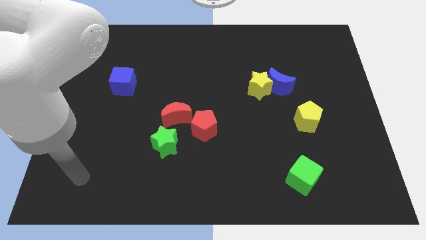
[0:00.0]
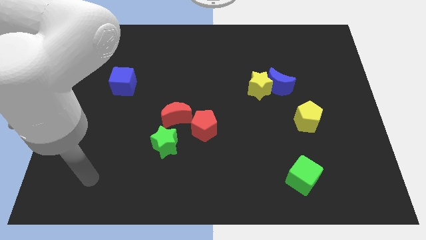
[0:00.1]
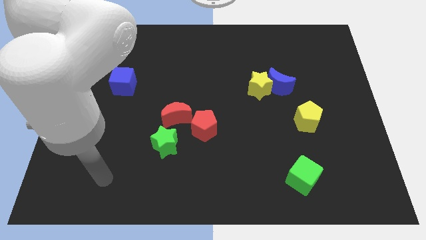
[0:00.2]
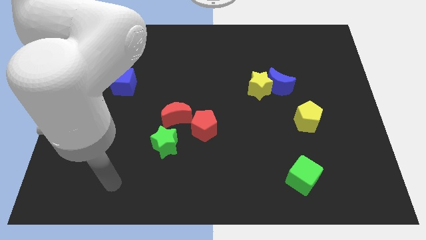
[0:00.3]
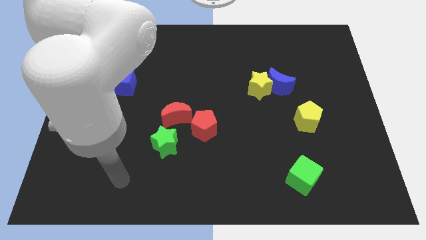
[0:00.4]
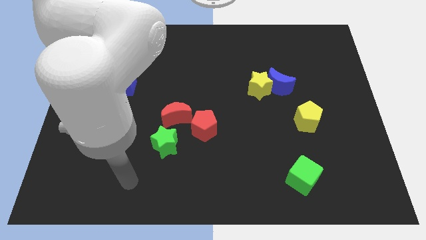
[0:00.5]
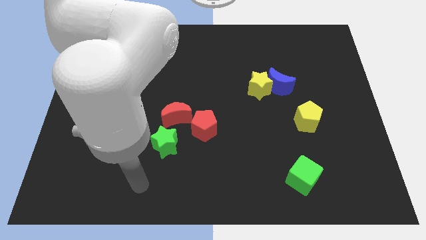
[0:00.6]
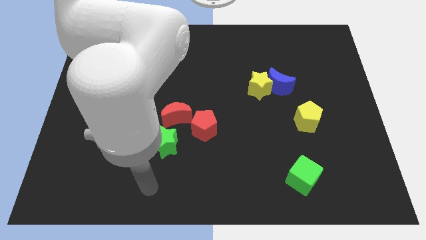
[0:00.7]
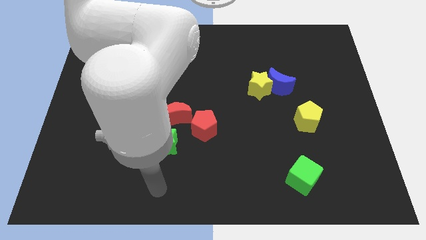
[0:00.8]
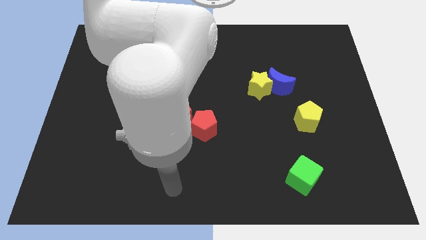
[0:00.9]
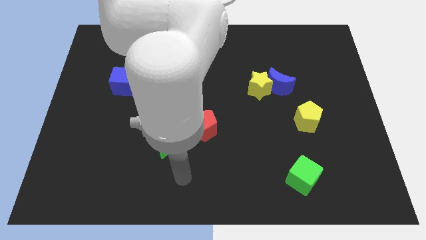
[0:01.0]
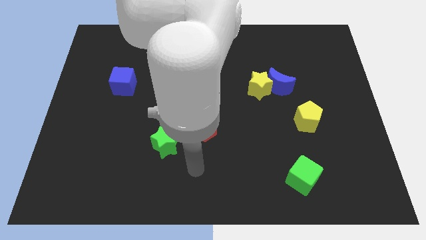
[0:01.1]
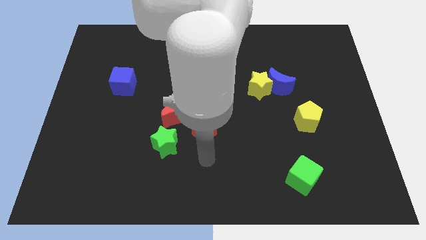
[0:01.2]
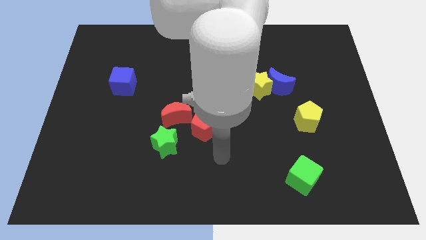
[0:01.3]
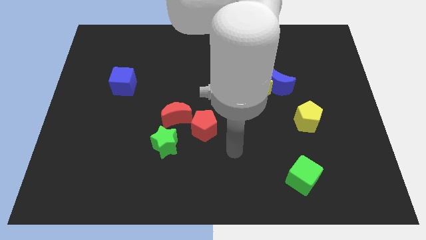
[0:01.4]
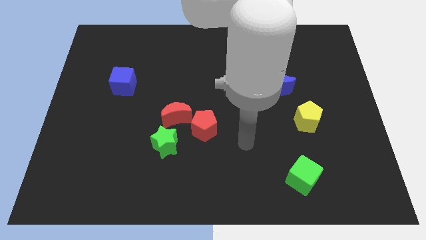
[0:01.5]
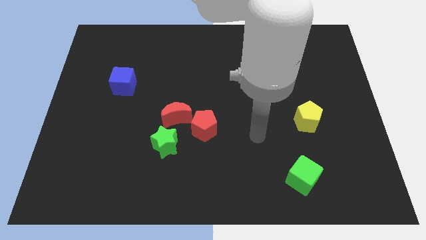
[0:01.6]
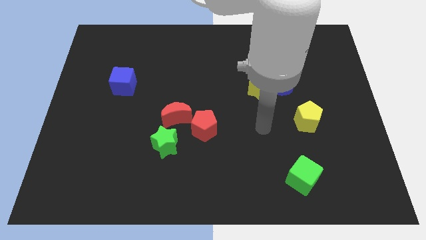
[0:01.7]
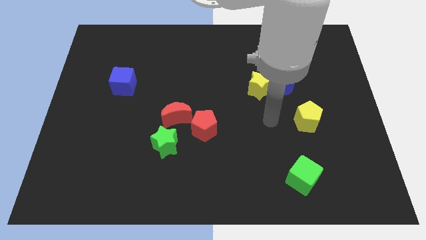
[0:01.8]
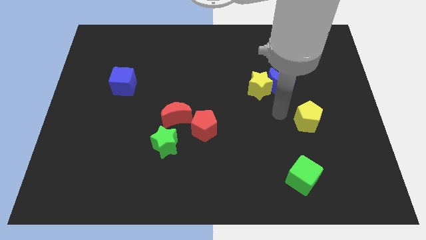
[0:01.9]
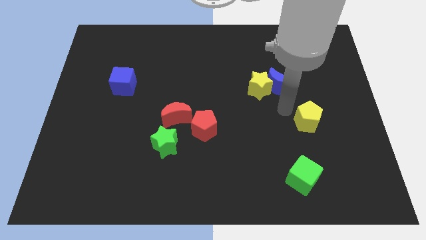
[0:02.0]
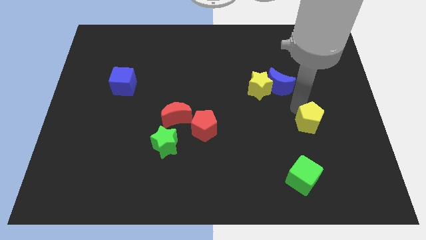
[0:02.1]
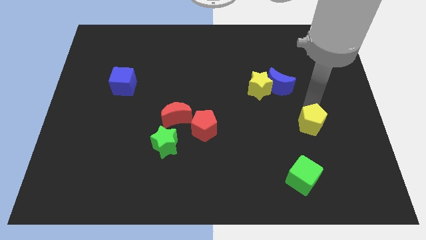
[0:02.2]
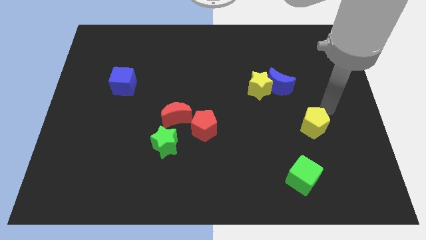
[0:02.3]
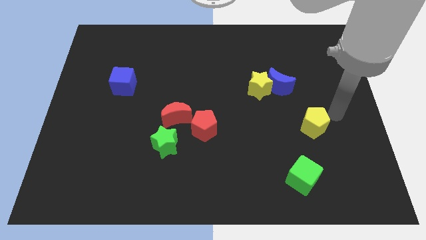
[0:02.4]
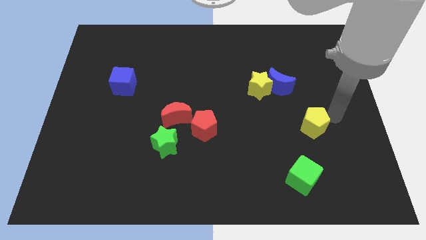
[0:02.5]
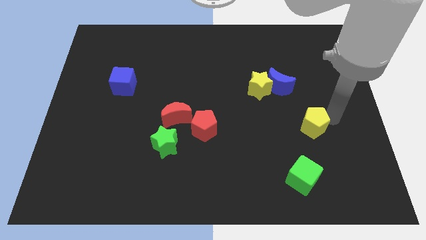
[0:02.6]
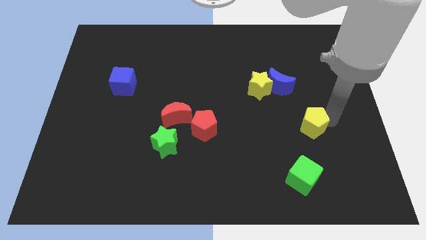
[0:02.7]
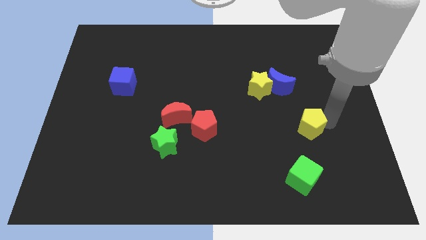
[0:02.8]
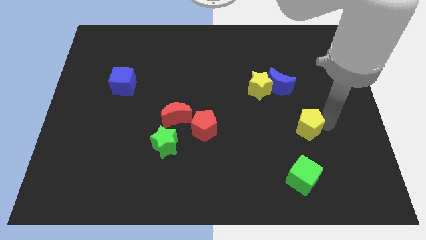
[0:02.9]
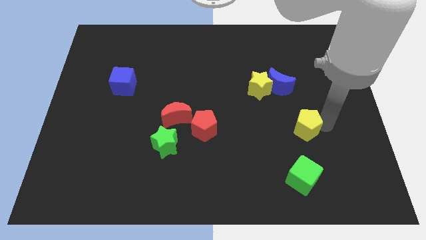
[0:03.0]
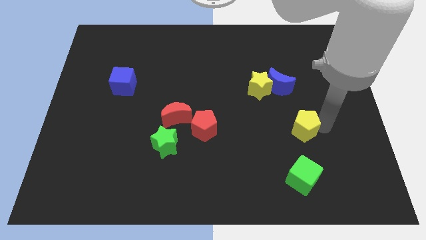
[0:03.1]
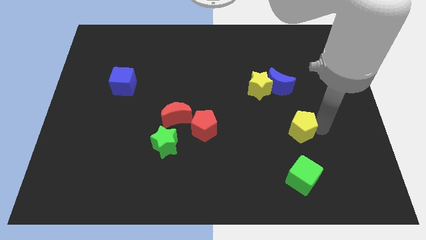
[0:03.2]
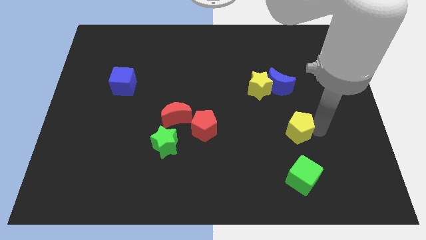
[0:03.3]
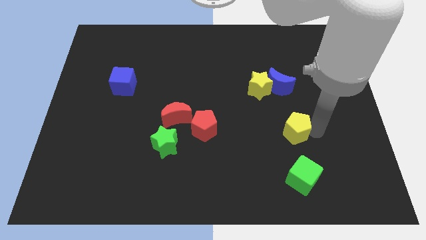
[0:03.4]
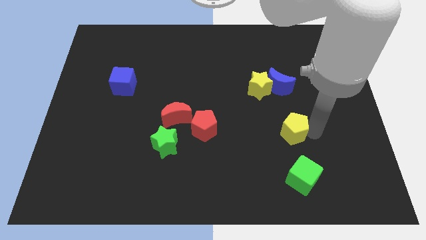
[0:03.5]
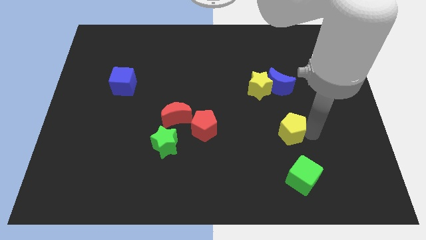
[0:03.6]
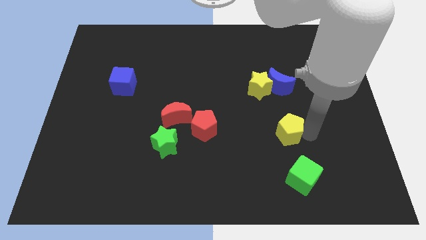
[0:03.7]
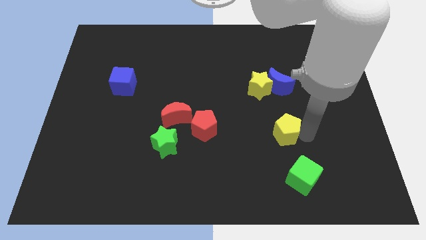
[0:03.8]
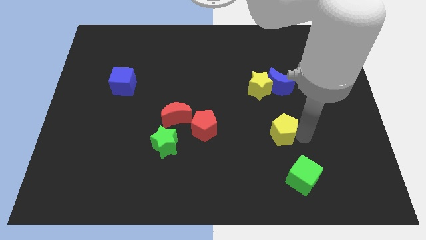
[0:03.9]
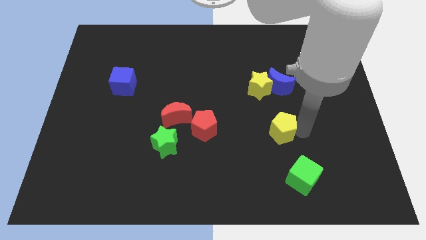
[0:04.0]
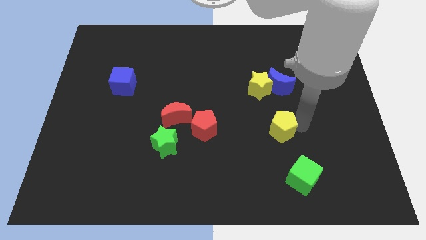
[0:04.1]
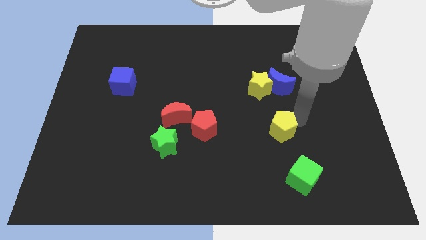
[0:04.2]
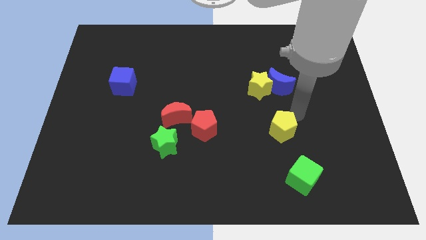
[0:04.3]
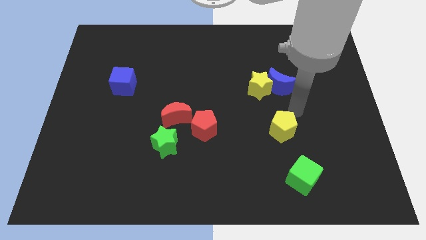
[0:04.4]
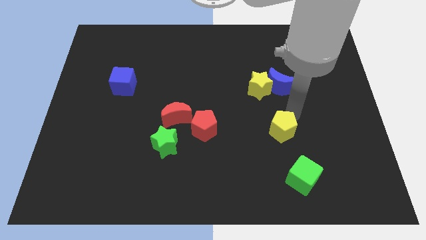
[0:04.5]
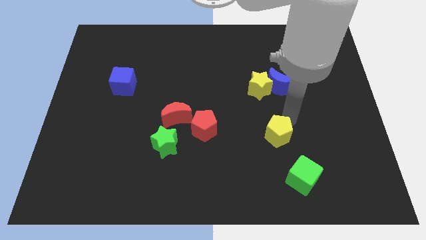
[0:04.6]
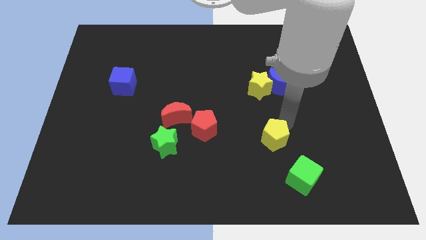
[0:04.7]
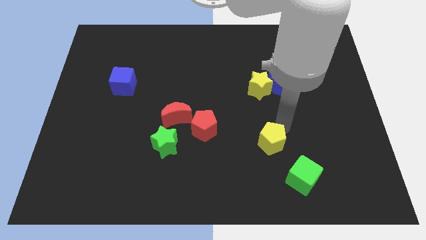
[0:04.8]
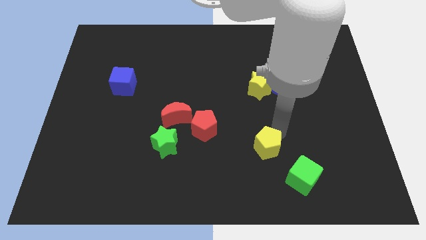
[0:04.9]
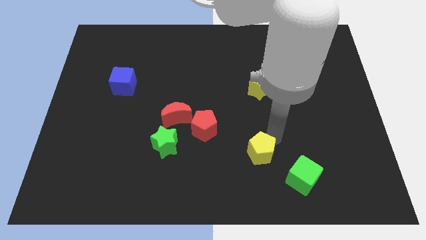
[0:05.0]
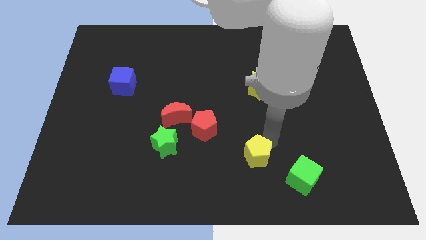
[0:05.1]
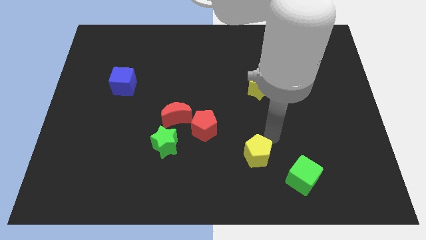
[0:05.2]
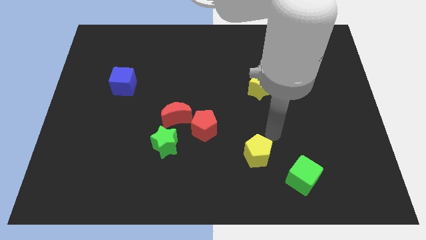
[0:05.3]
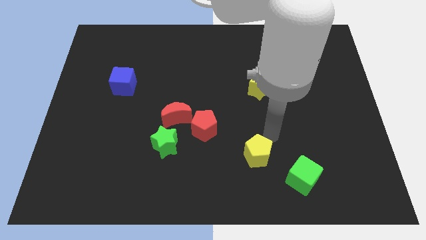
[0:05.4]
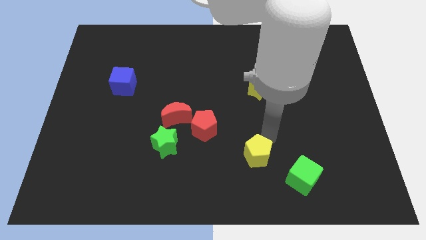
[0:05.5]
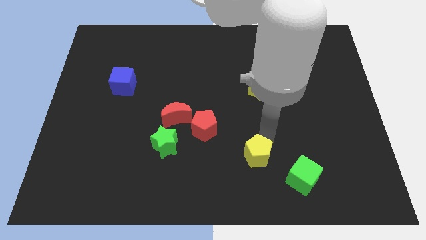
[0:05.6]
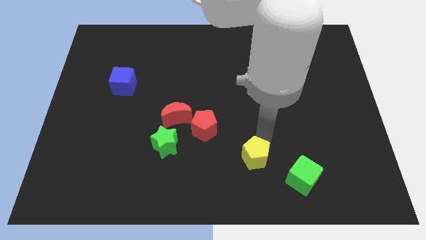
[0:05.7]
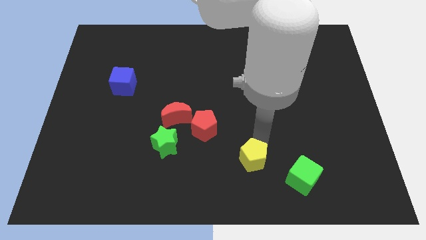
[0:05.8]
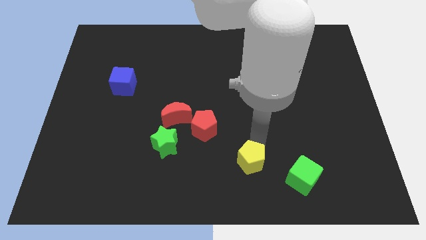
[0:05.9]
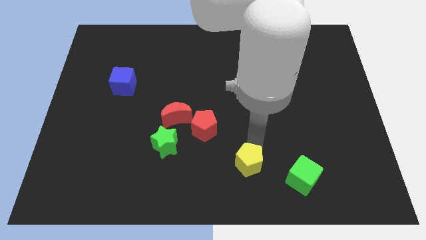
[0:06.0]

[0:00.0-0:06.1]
put the yellow pentagon to the bottom side

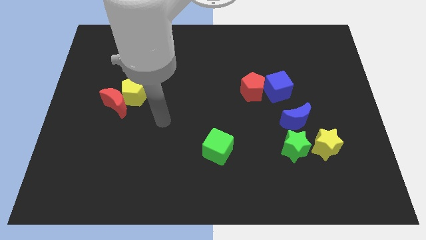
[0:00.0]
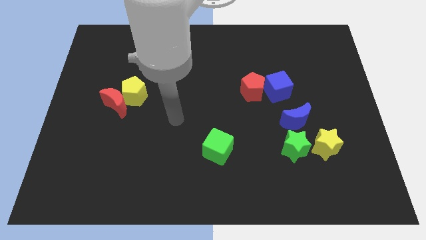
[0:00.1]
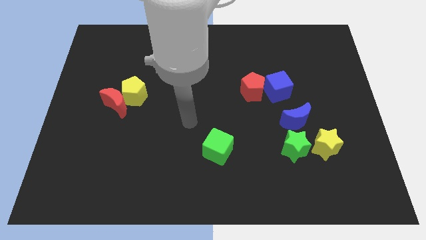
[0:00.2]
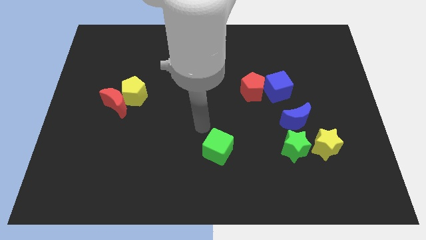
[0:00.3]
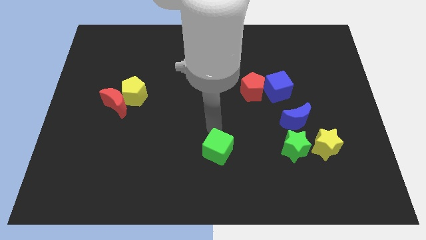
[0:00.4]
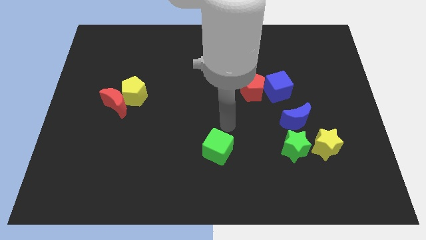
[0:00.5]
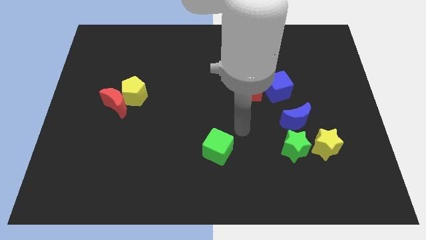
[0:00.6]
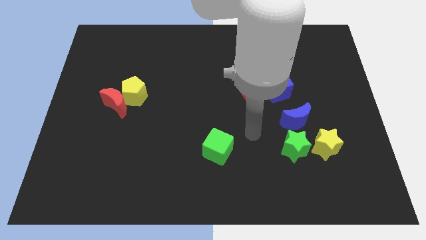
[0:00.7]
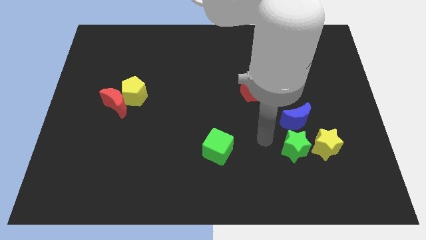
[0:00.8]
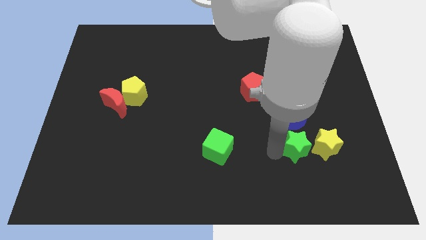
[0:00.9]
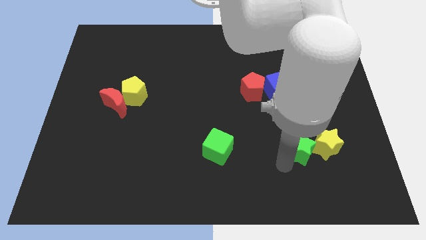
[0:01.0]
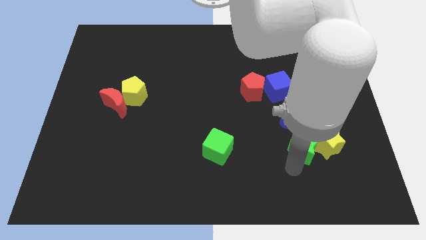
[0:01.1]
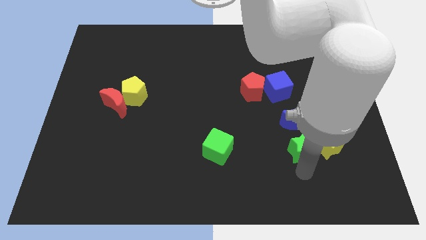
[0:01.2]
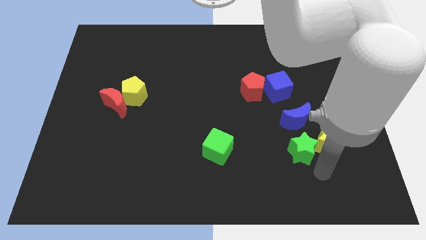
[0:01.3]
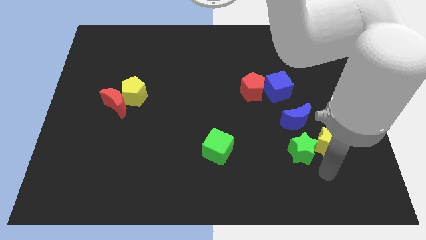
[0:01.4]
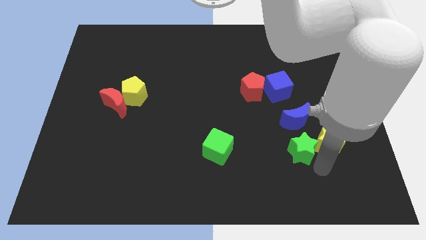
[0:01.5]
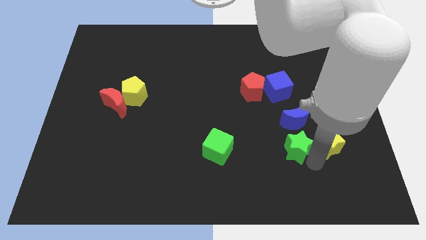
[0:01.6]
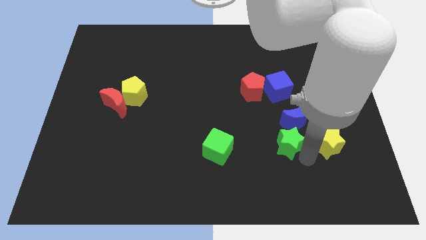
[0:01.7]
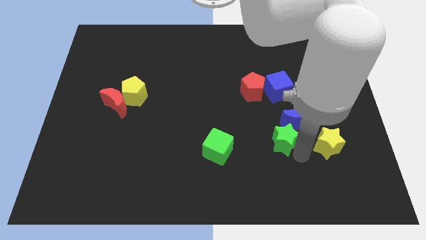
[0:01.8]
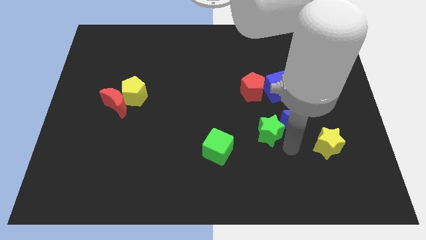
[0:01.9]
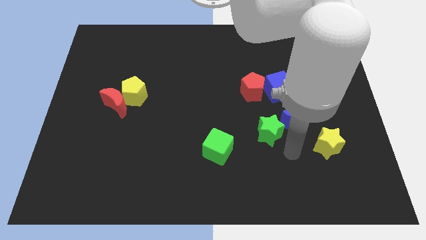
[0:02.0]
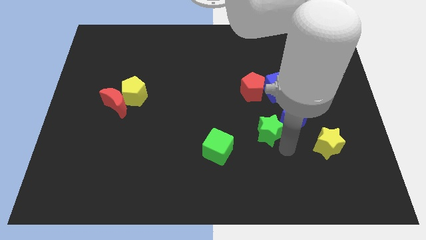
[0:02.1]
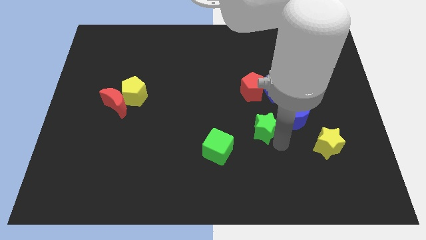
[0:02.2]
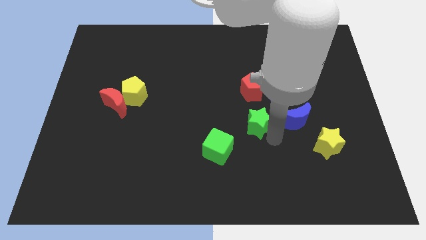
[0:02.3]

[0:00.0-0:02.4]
put the green star to the middle
